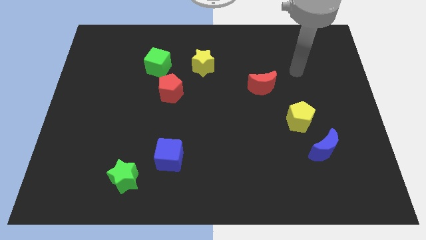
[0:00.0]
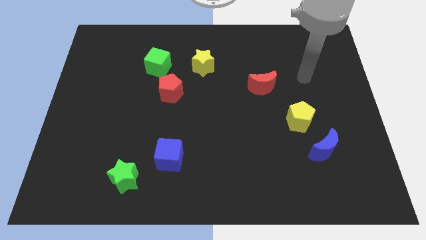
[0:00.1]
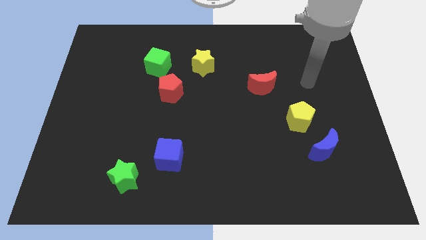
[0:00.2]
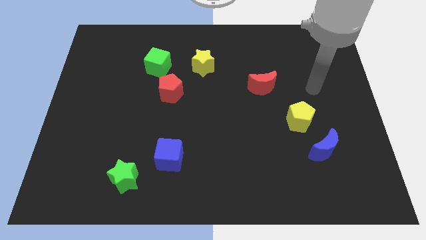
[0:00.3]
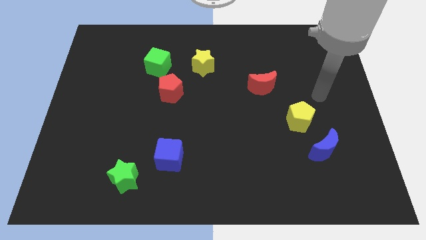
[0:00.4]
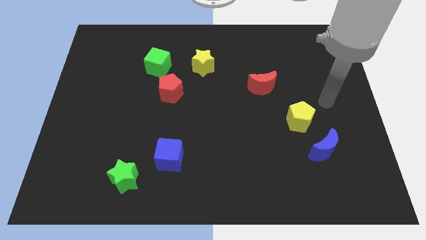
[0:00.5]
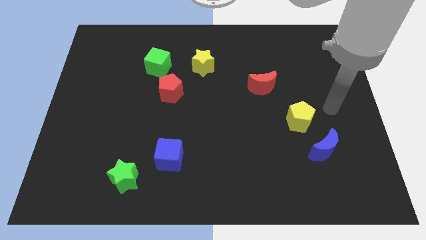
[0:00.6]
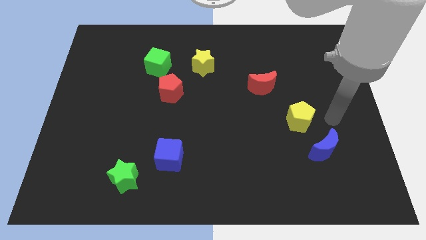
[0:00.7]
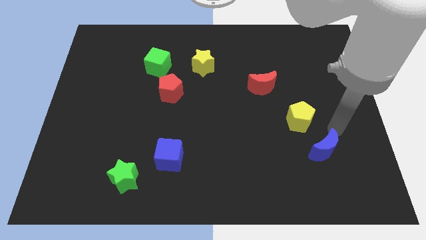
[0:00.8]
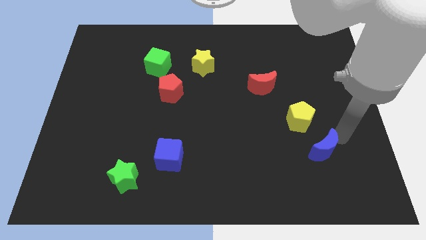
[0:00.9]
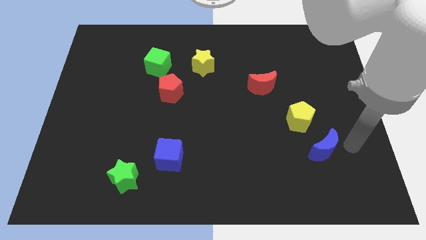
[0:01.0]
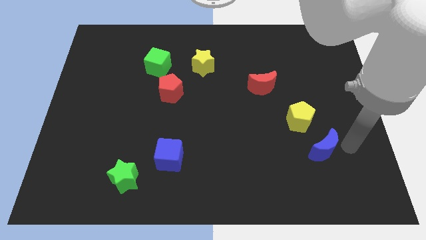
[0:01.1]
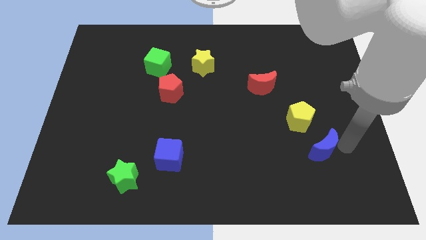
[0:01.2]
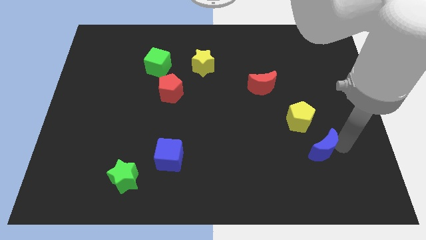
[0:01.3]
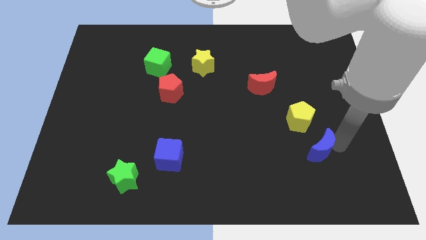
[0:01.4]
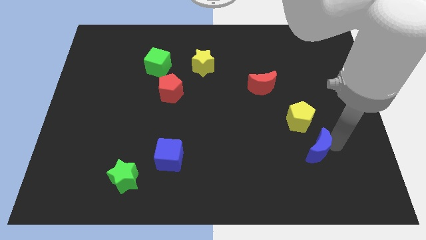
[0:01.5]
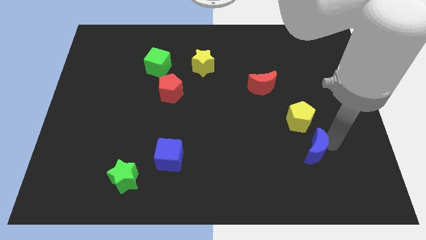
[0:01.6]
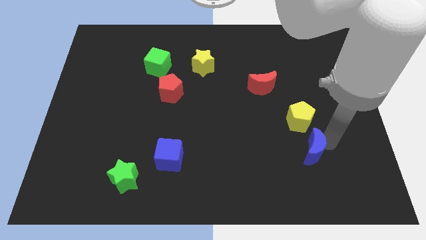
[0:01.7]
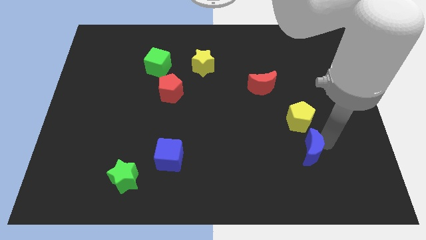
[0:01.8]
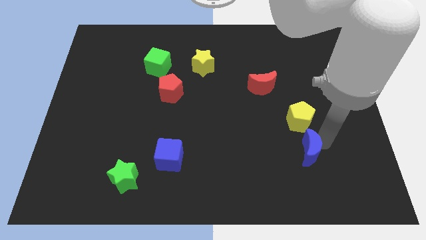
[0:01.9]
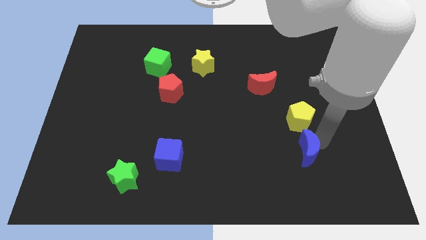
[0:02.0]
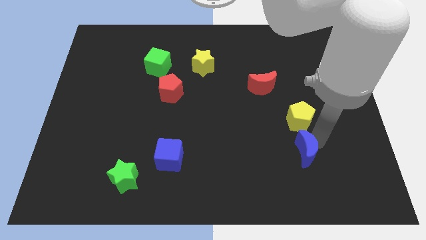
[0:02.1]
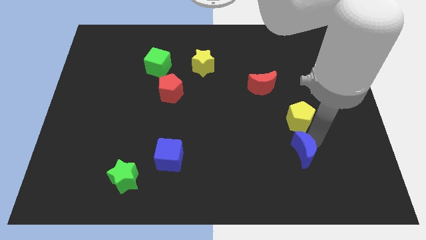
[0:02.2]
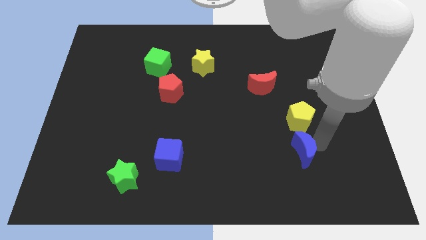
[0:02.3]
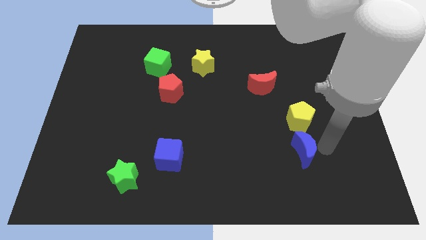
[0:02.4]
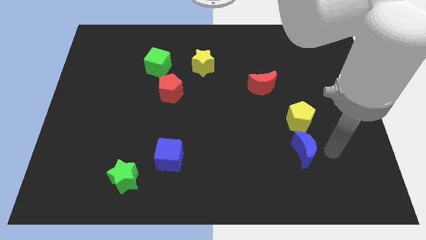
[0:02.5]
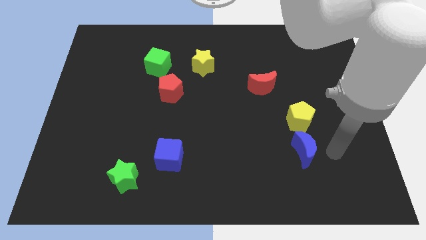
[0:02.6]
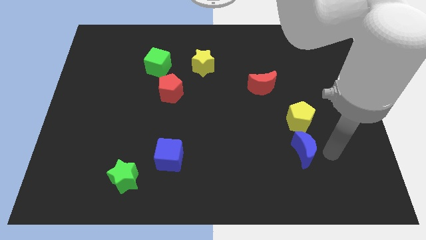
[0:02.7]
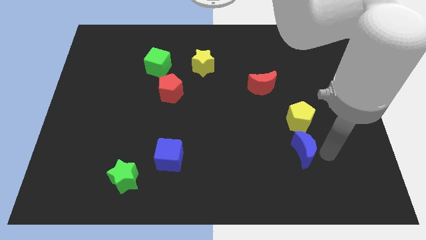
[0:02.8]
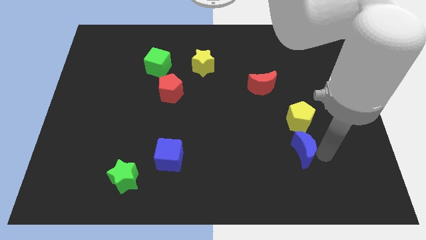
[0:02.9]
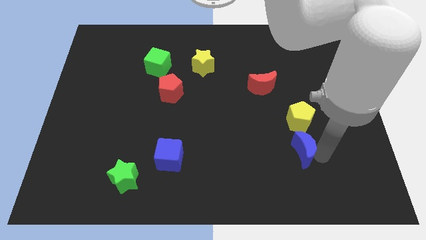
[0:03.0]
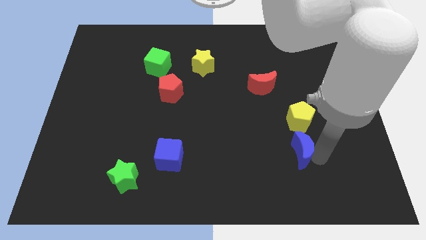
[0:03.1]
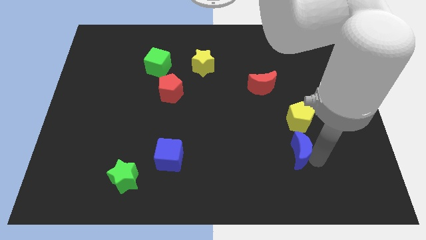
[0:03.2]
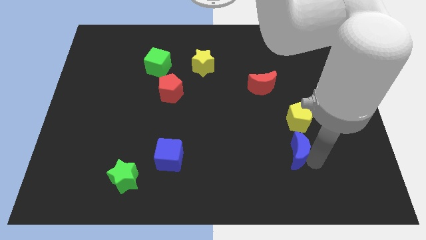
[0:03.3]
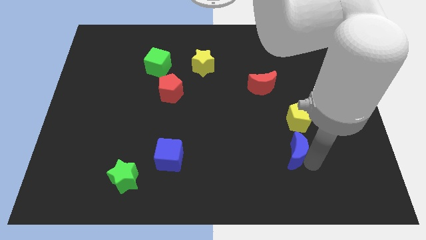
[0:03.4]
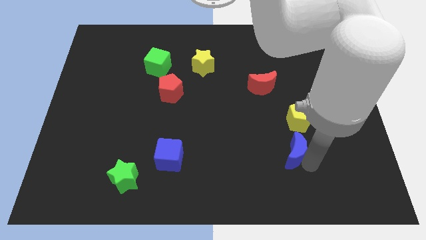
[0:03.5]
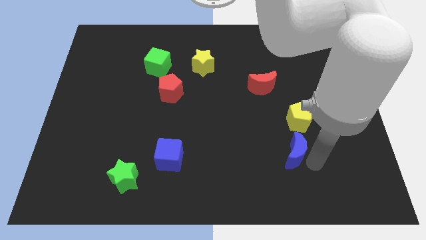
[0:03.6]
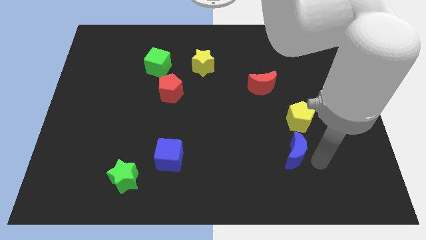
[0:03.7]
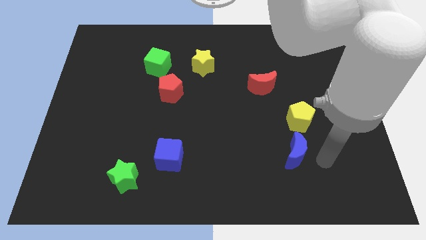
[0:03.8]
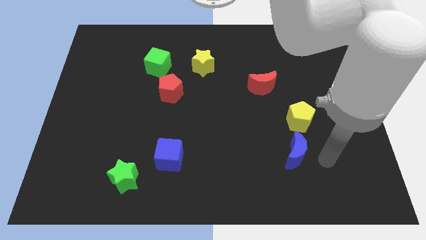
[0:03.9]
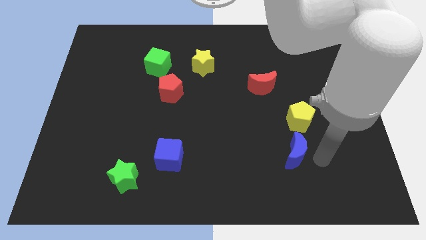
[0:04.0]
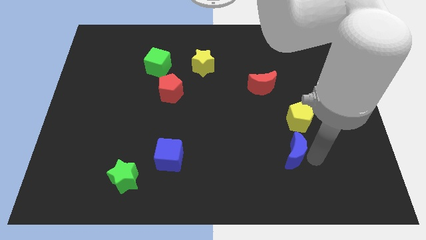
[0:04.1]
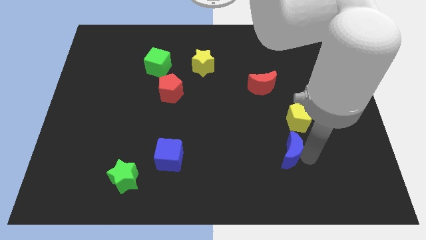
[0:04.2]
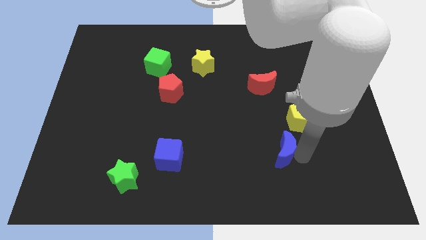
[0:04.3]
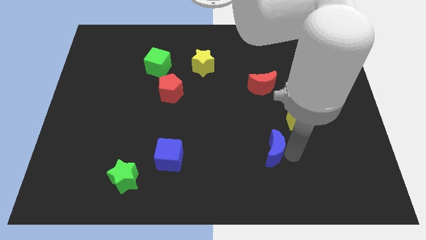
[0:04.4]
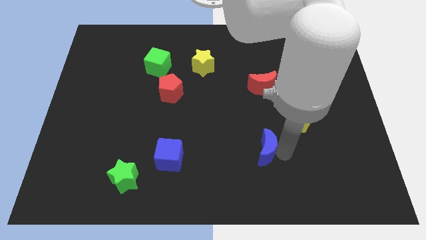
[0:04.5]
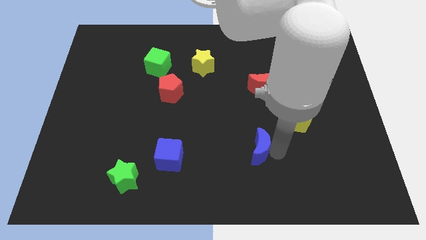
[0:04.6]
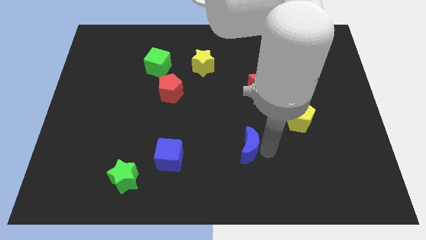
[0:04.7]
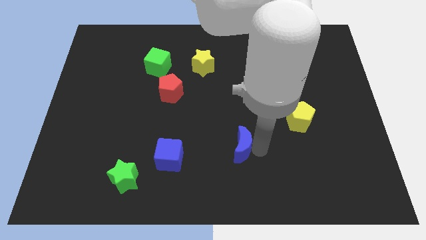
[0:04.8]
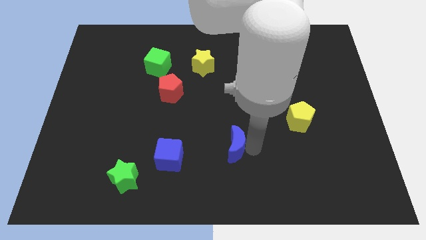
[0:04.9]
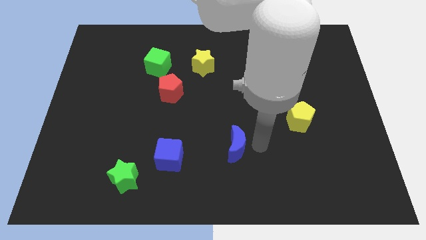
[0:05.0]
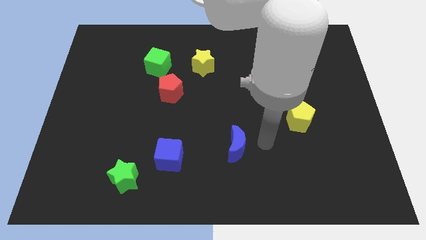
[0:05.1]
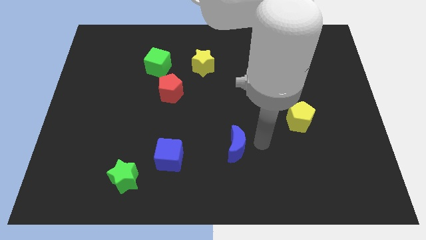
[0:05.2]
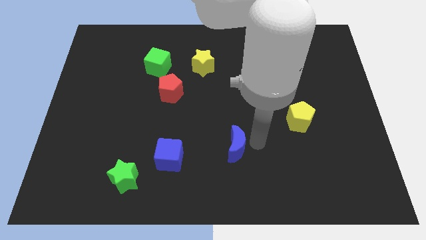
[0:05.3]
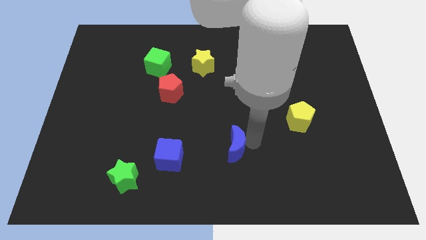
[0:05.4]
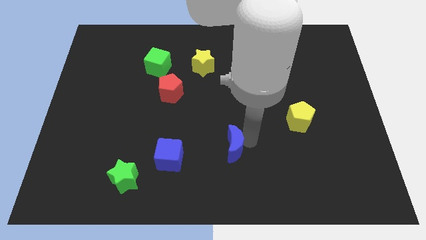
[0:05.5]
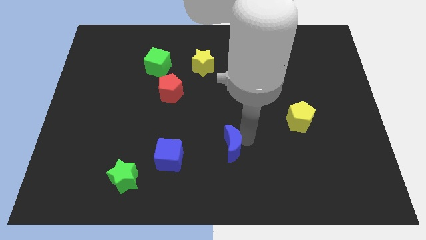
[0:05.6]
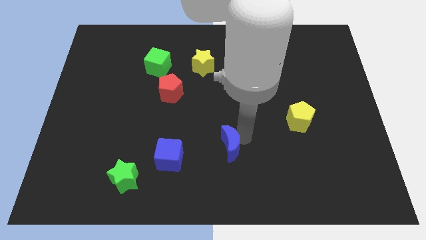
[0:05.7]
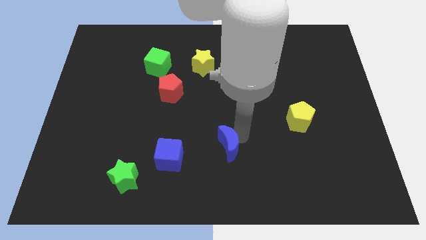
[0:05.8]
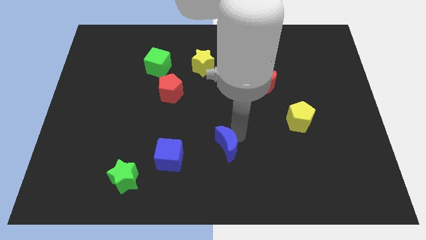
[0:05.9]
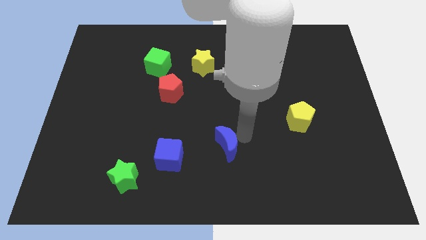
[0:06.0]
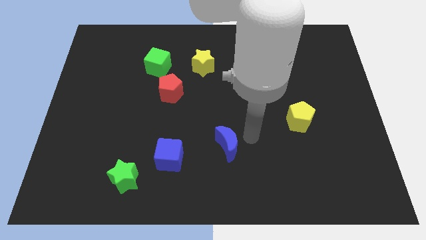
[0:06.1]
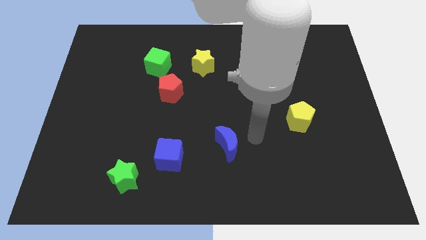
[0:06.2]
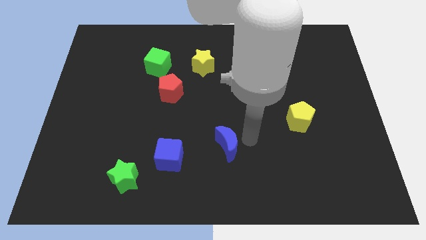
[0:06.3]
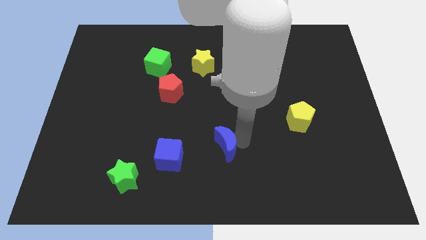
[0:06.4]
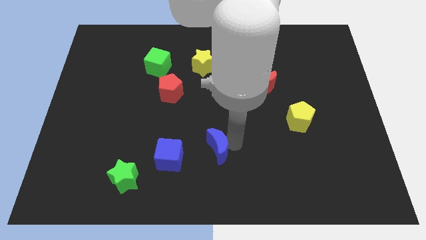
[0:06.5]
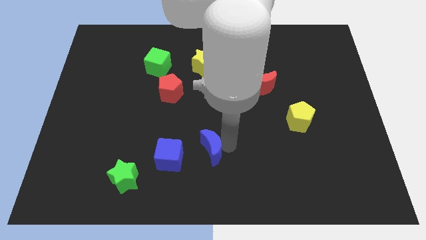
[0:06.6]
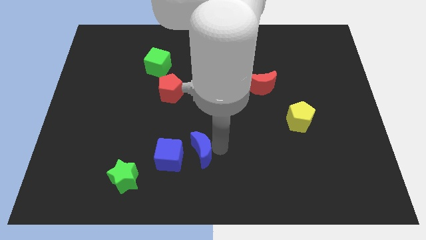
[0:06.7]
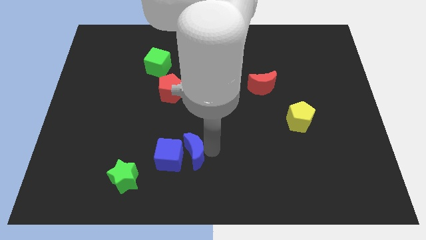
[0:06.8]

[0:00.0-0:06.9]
move the blue moon to the blue cube

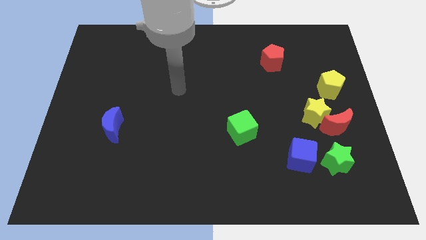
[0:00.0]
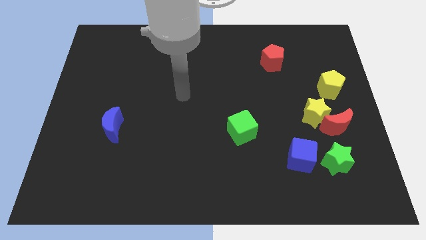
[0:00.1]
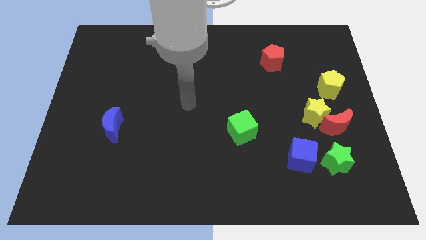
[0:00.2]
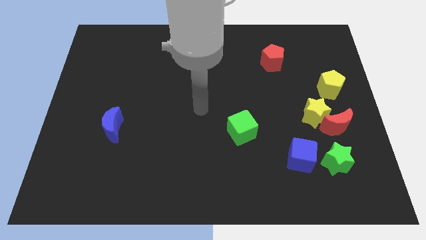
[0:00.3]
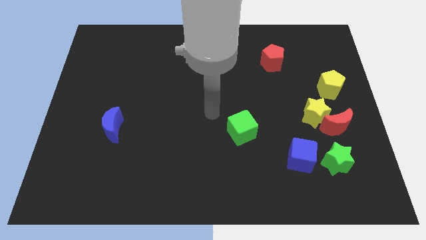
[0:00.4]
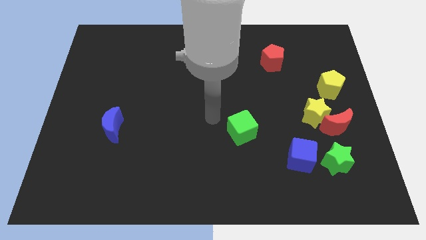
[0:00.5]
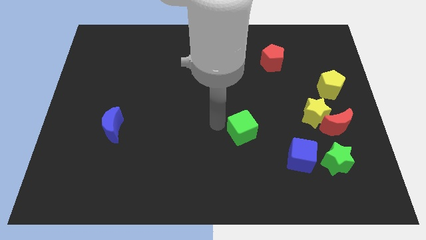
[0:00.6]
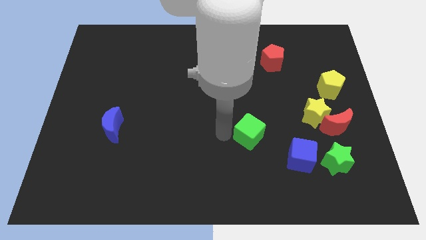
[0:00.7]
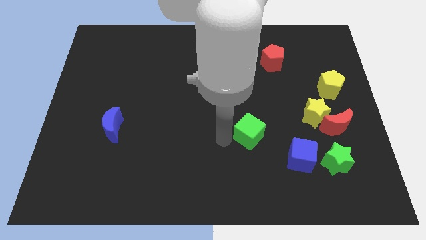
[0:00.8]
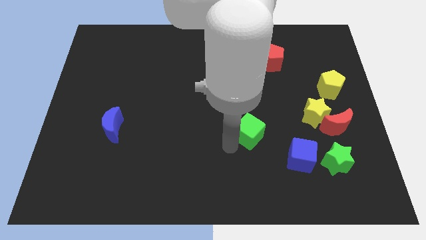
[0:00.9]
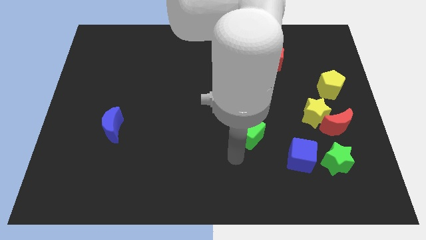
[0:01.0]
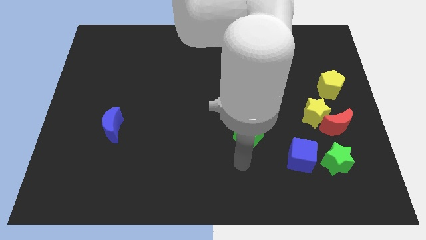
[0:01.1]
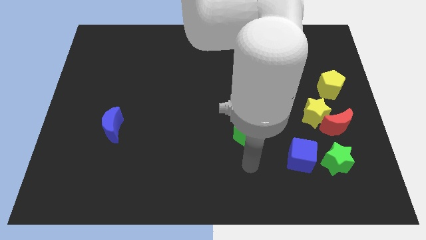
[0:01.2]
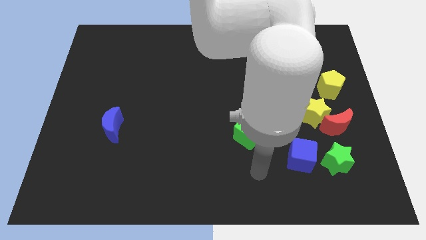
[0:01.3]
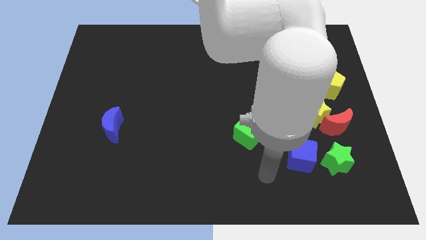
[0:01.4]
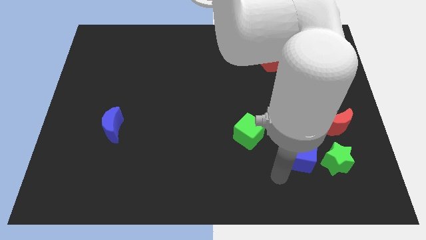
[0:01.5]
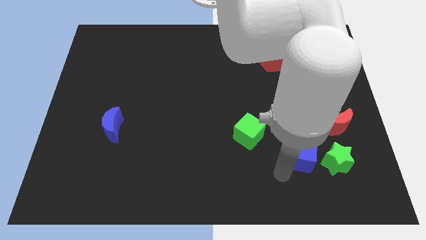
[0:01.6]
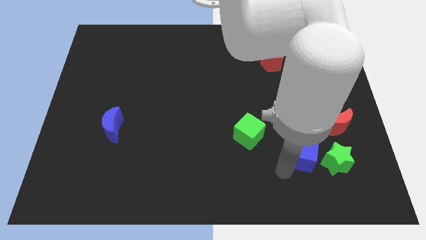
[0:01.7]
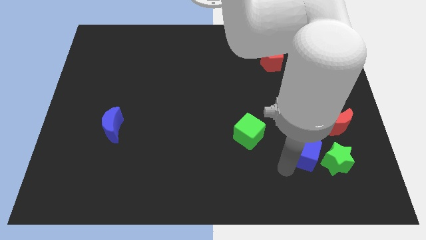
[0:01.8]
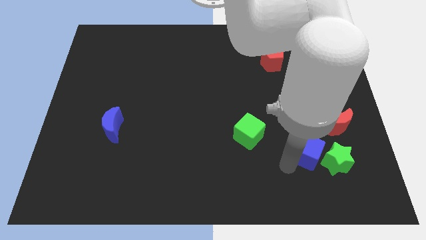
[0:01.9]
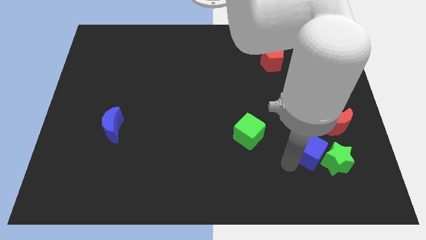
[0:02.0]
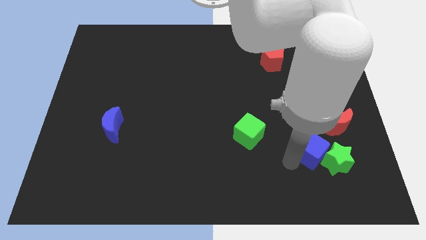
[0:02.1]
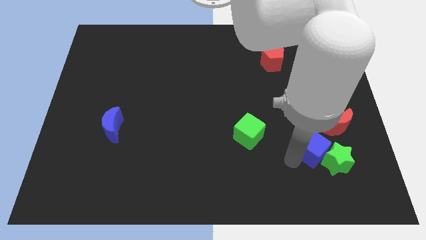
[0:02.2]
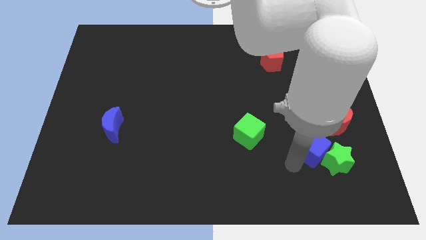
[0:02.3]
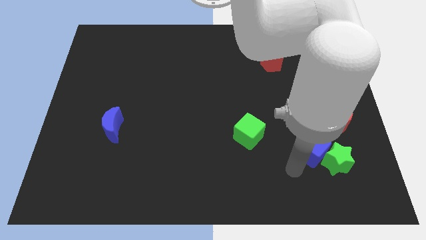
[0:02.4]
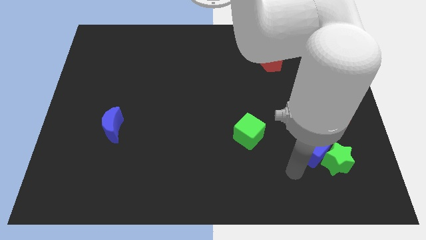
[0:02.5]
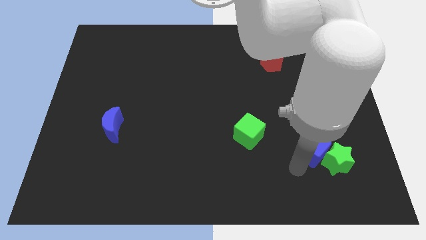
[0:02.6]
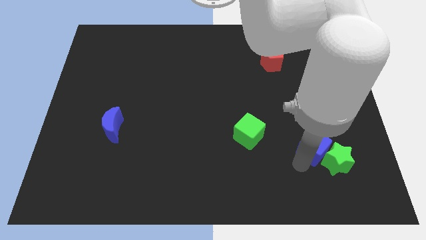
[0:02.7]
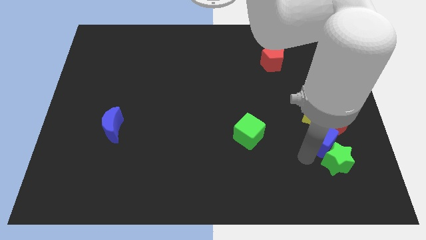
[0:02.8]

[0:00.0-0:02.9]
push the blue cube to the red moon
